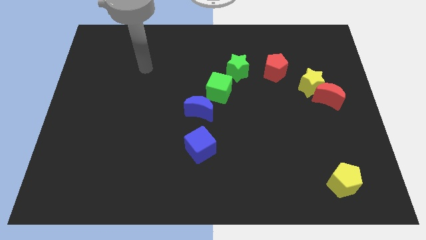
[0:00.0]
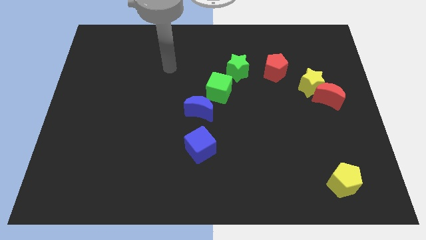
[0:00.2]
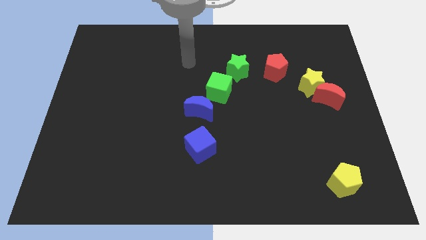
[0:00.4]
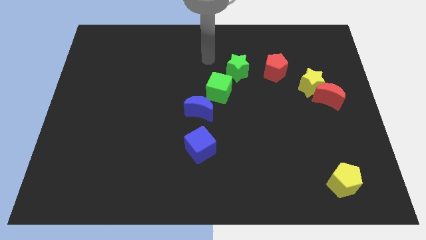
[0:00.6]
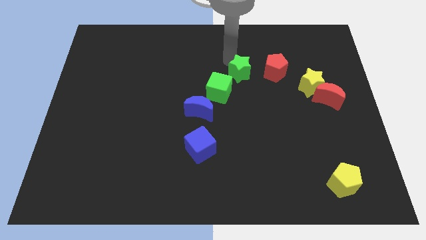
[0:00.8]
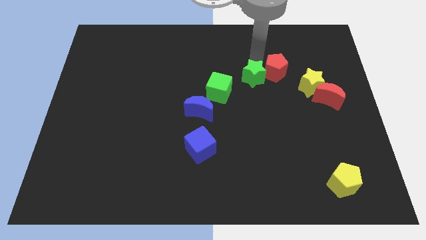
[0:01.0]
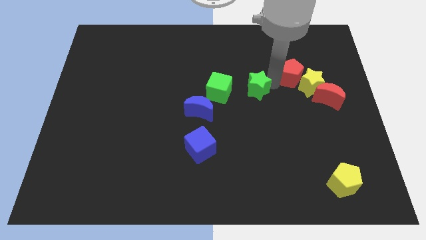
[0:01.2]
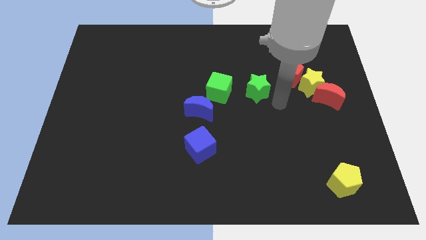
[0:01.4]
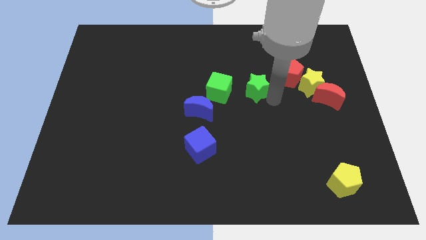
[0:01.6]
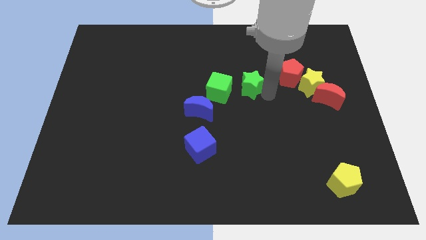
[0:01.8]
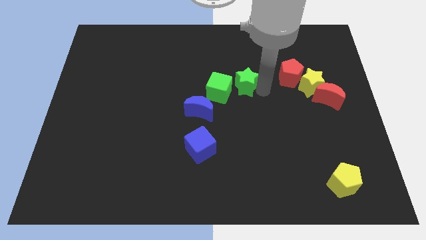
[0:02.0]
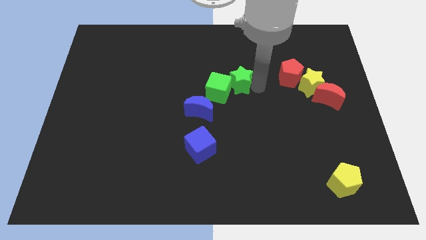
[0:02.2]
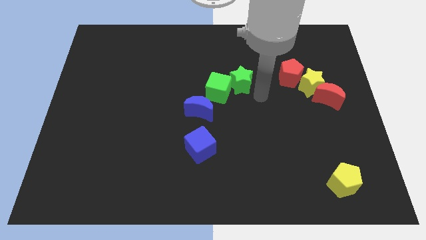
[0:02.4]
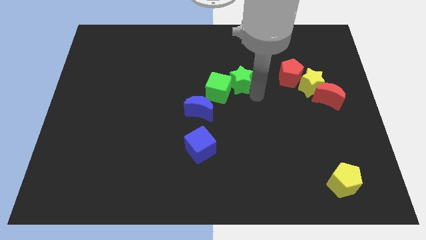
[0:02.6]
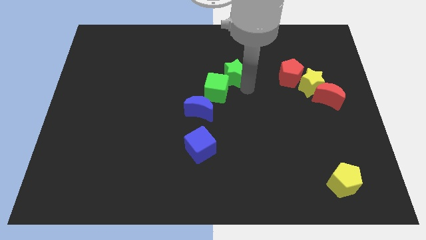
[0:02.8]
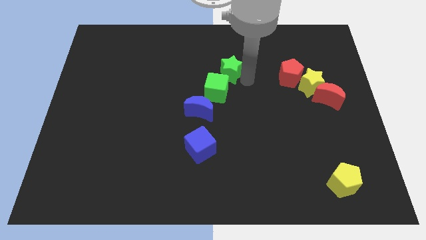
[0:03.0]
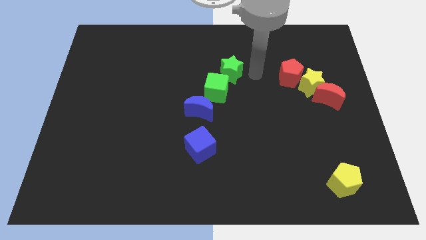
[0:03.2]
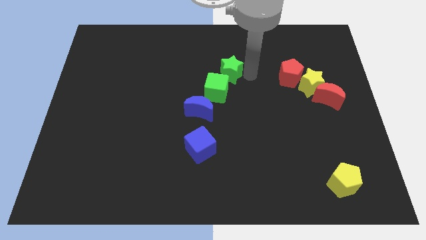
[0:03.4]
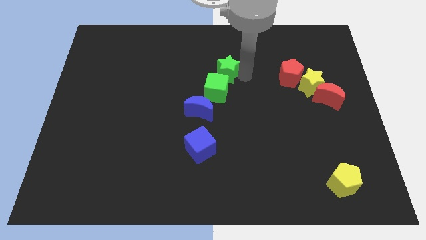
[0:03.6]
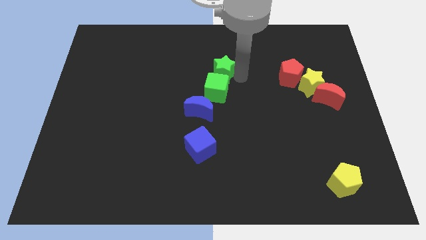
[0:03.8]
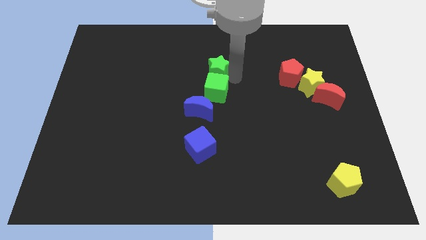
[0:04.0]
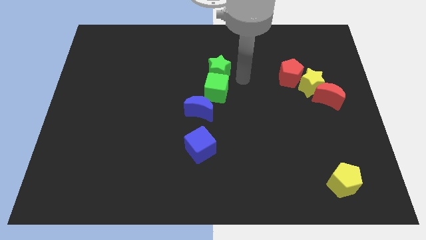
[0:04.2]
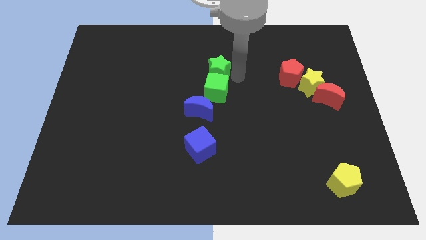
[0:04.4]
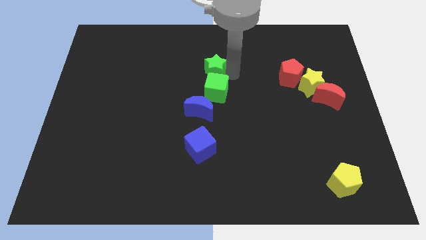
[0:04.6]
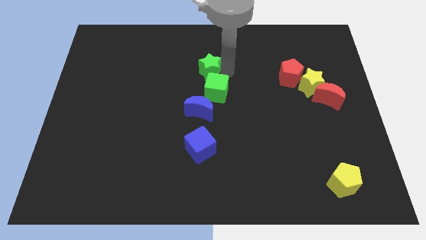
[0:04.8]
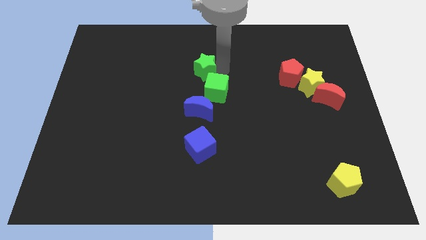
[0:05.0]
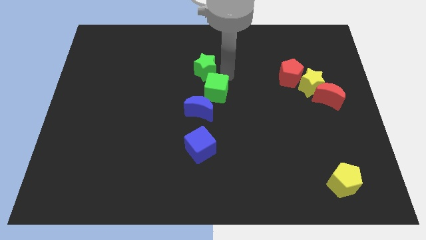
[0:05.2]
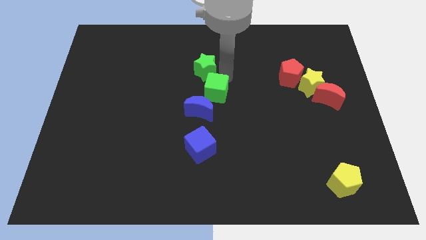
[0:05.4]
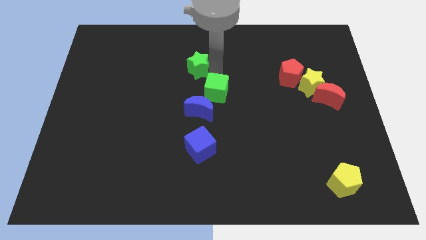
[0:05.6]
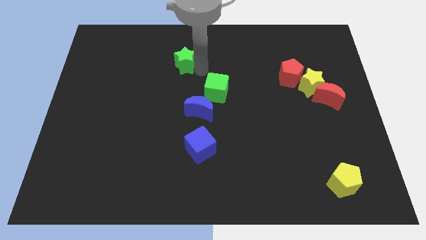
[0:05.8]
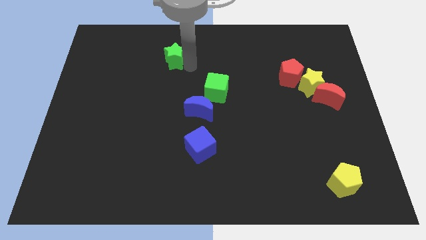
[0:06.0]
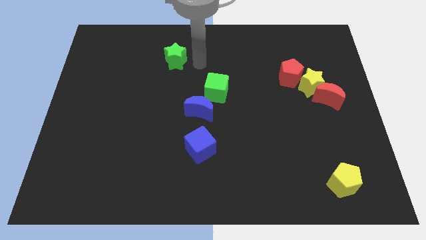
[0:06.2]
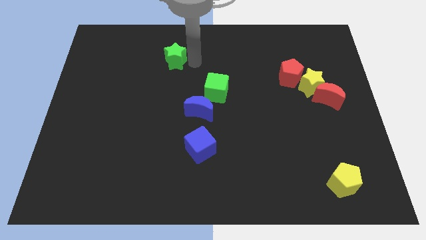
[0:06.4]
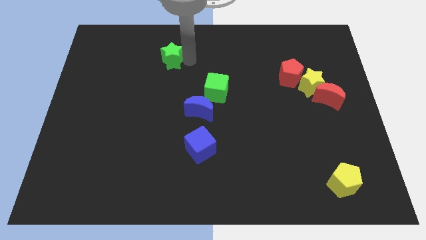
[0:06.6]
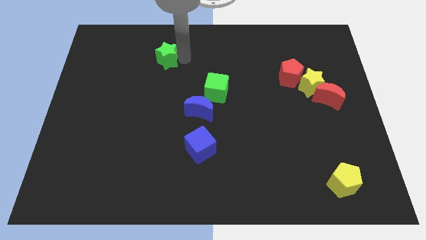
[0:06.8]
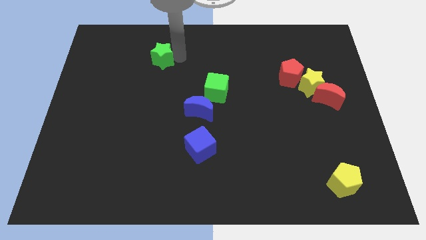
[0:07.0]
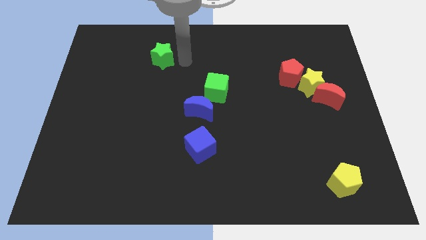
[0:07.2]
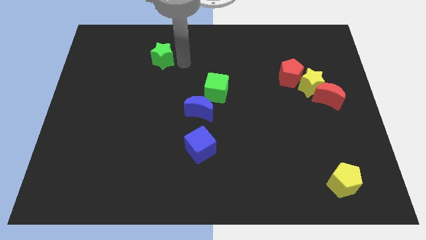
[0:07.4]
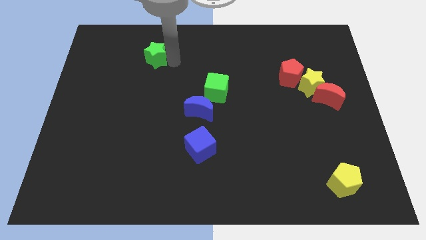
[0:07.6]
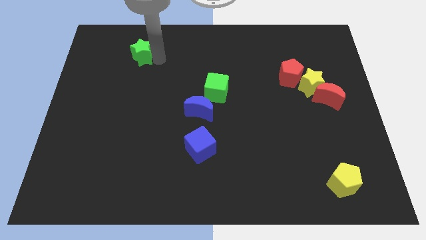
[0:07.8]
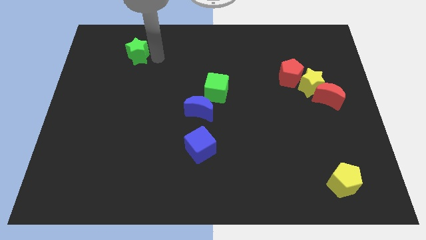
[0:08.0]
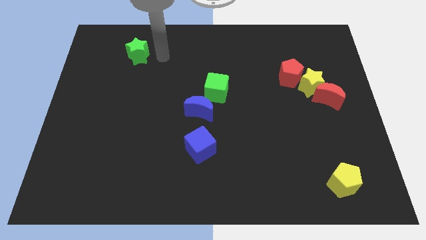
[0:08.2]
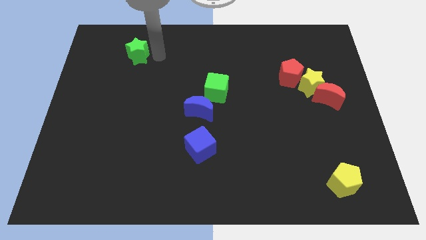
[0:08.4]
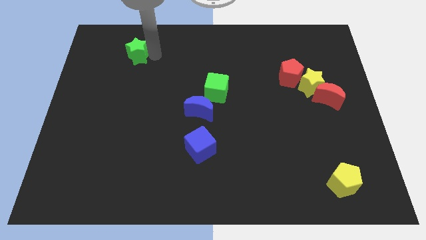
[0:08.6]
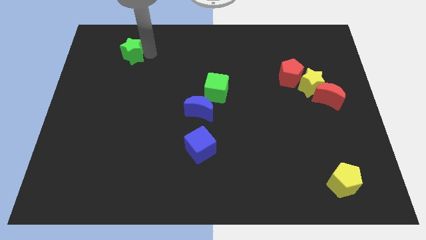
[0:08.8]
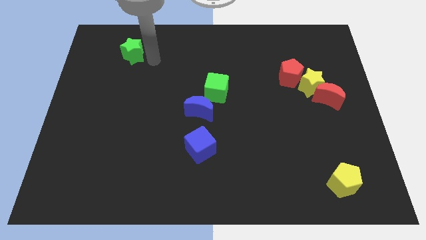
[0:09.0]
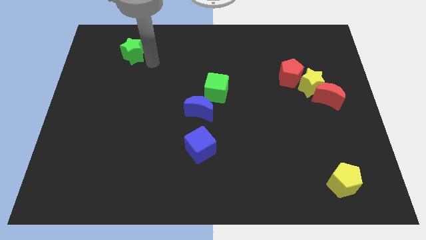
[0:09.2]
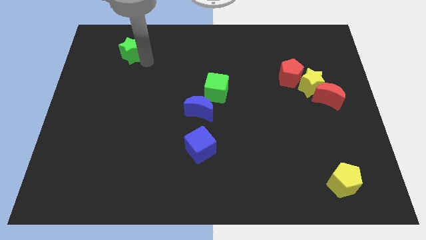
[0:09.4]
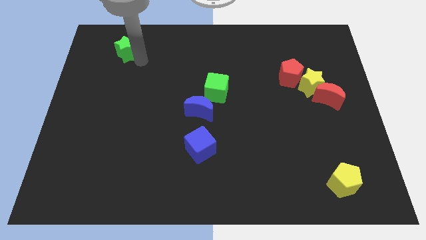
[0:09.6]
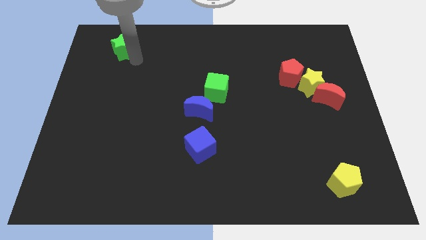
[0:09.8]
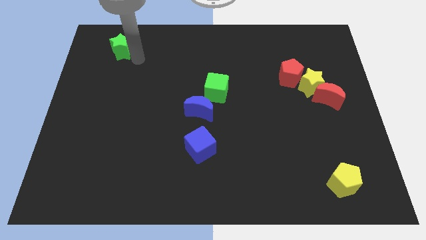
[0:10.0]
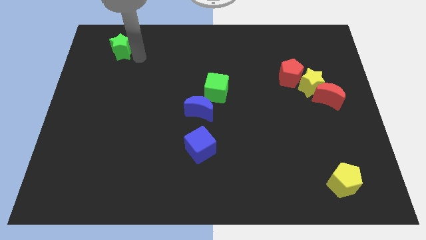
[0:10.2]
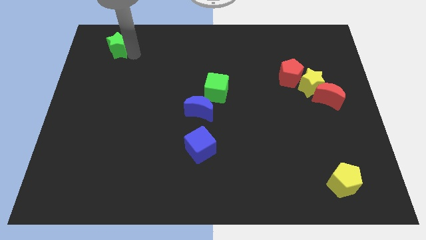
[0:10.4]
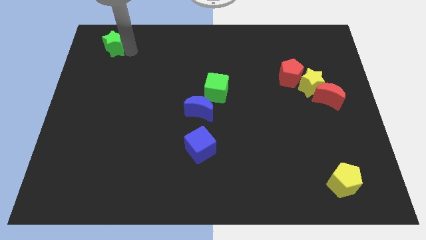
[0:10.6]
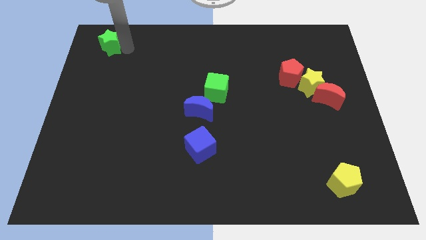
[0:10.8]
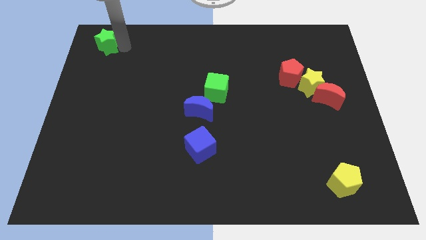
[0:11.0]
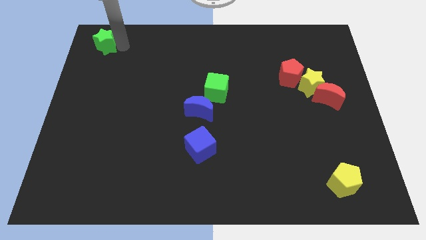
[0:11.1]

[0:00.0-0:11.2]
push the green star to the upper left corner

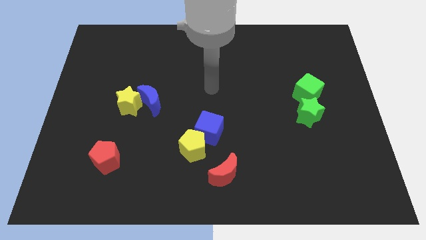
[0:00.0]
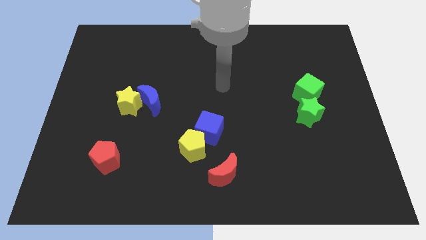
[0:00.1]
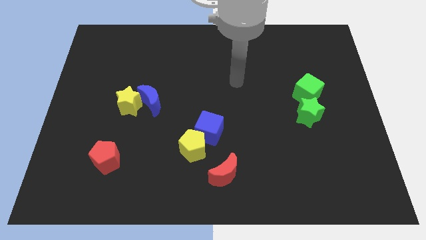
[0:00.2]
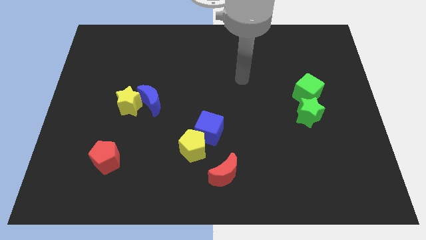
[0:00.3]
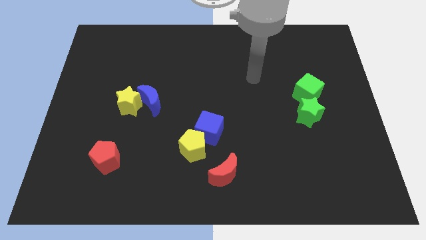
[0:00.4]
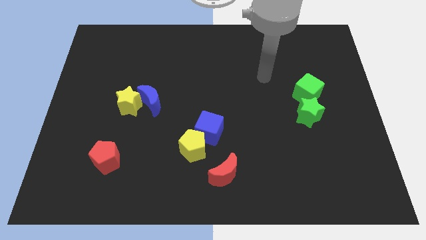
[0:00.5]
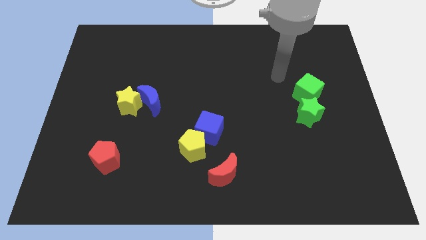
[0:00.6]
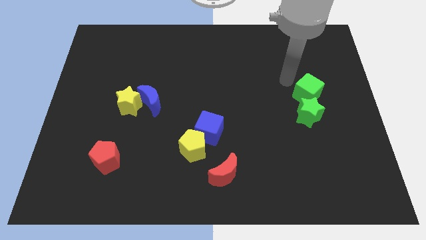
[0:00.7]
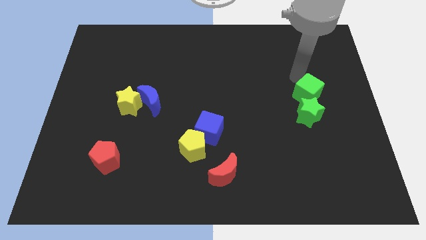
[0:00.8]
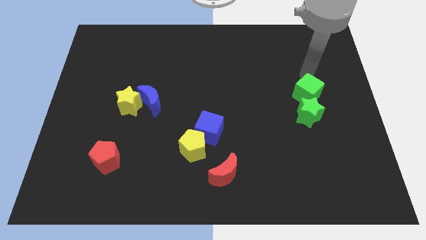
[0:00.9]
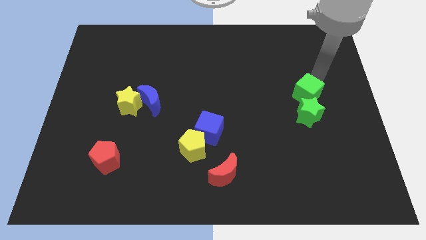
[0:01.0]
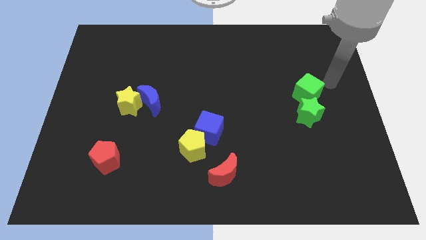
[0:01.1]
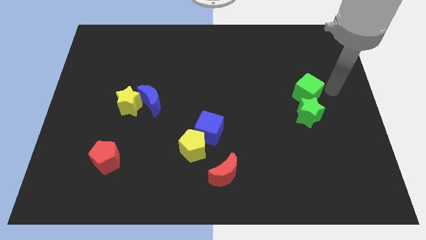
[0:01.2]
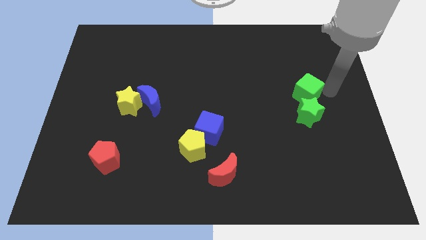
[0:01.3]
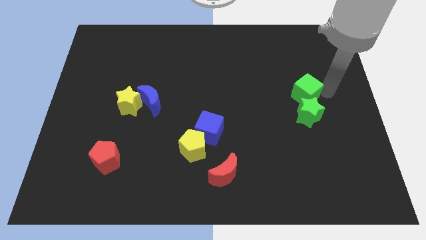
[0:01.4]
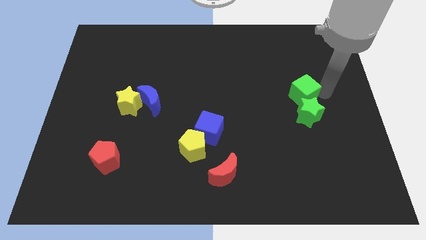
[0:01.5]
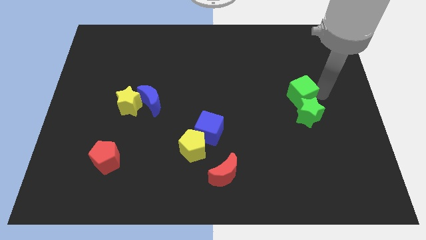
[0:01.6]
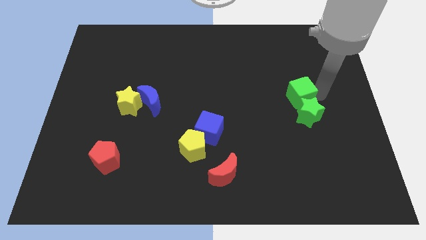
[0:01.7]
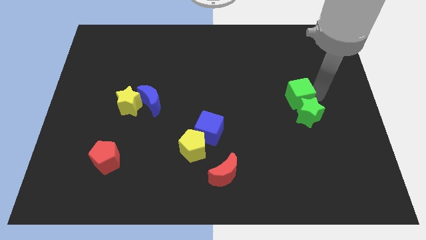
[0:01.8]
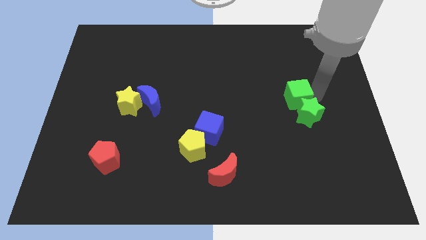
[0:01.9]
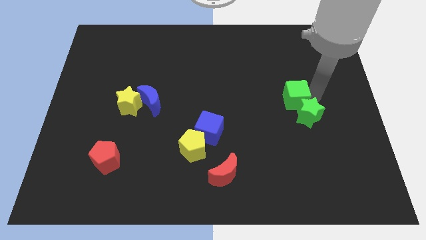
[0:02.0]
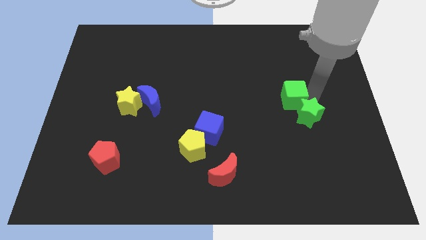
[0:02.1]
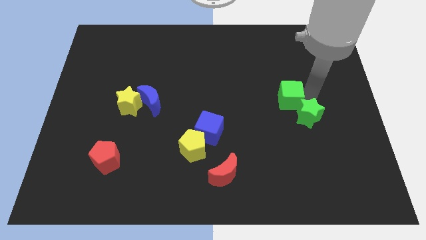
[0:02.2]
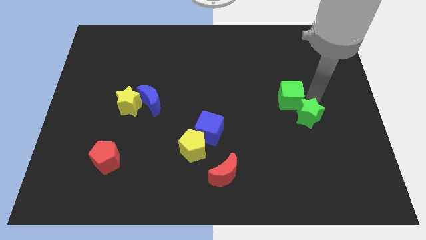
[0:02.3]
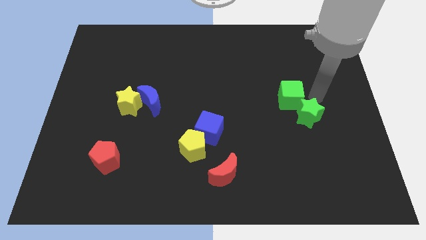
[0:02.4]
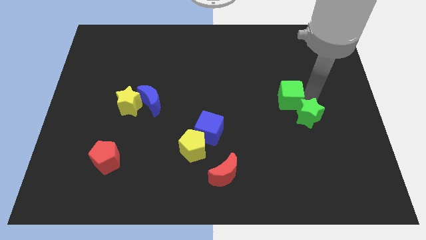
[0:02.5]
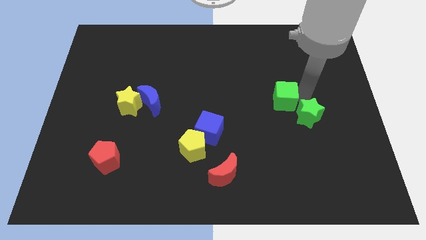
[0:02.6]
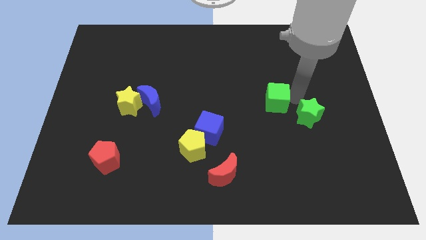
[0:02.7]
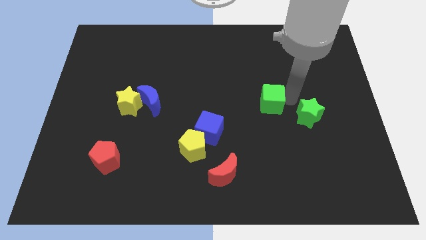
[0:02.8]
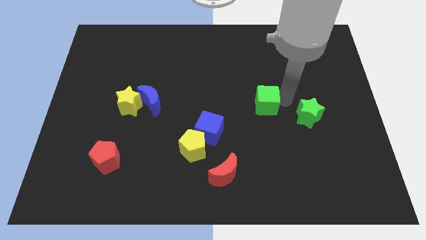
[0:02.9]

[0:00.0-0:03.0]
slide the green cube to the middle
